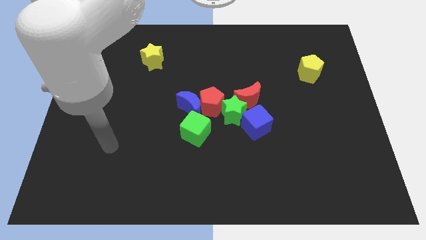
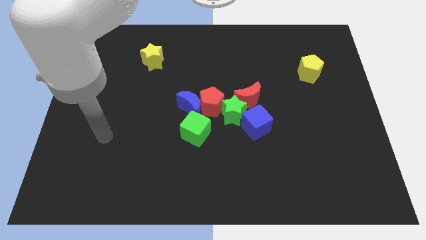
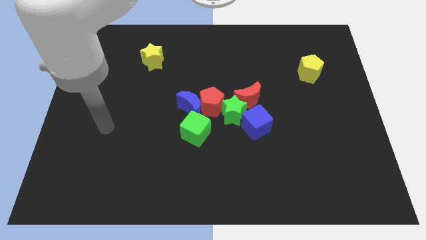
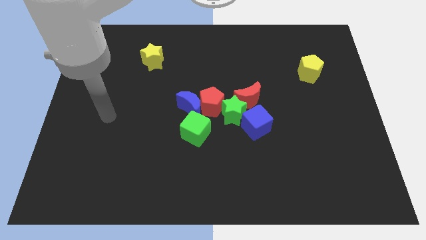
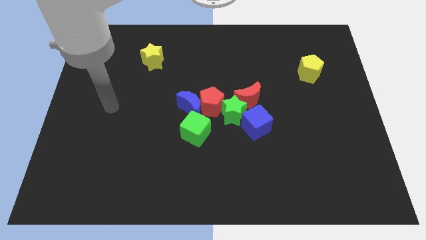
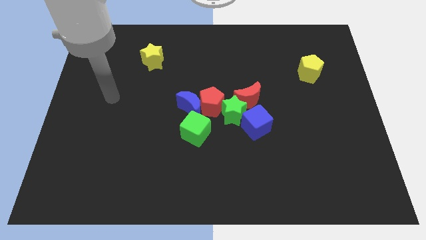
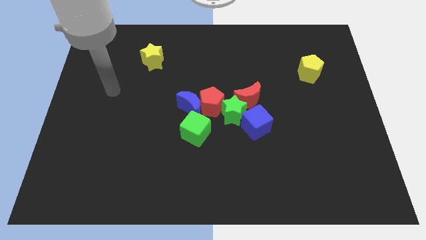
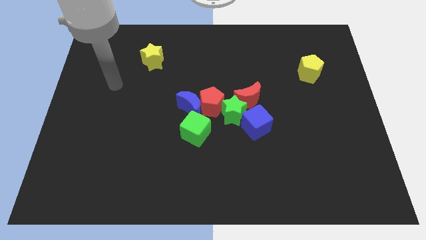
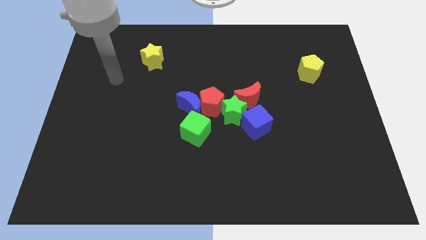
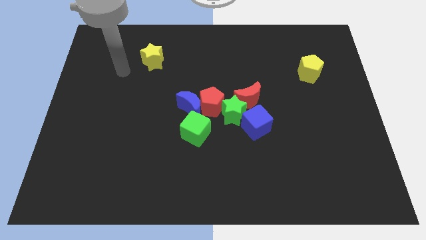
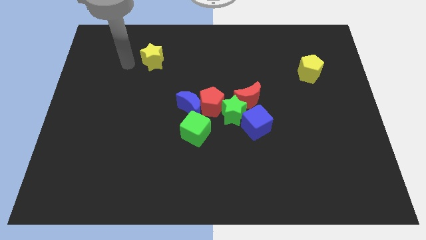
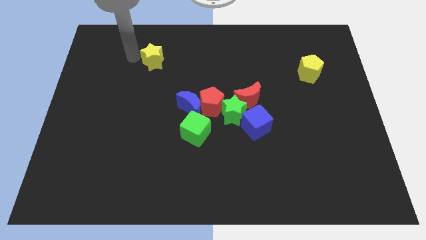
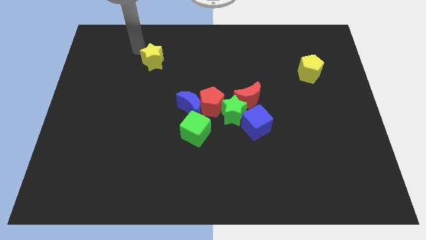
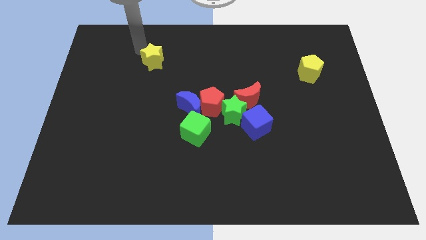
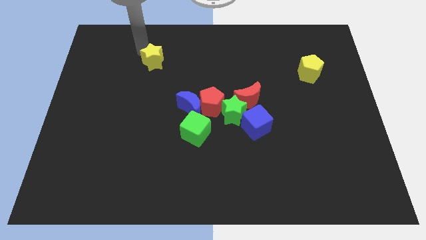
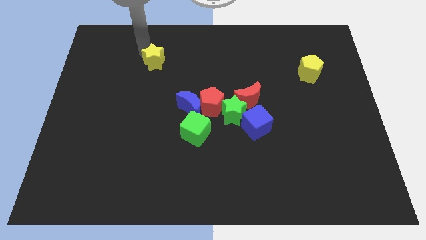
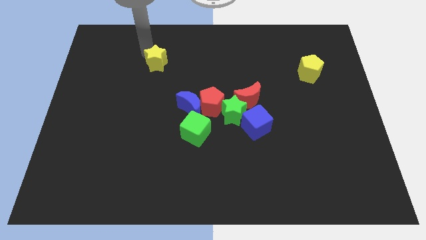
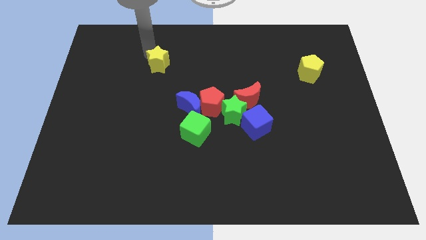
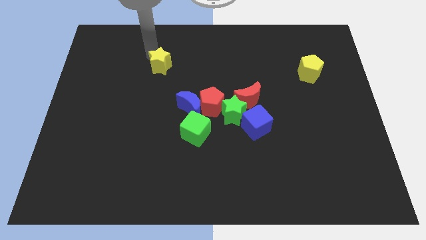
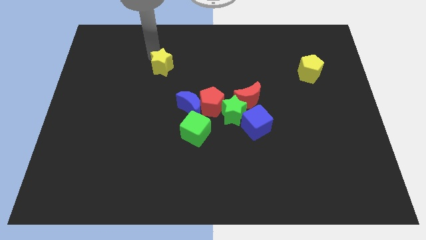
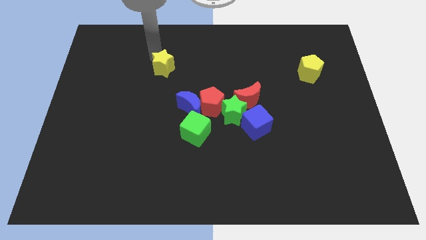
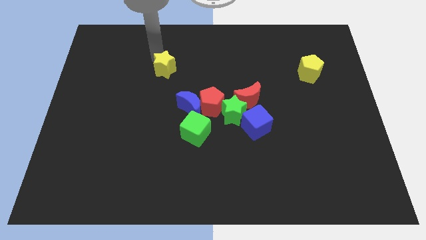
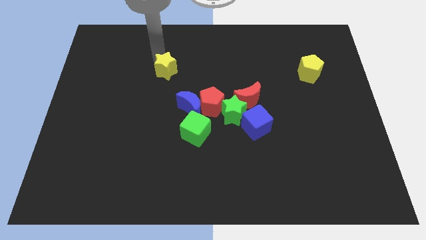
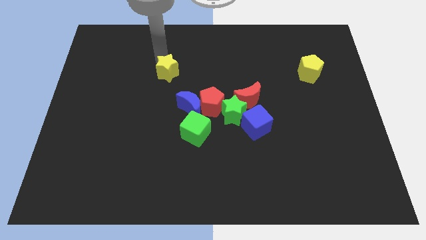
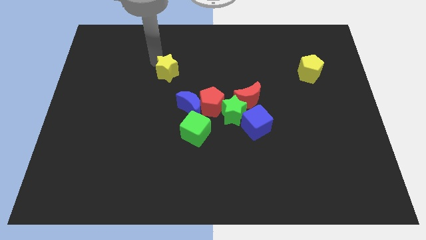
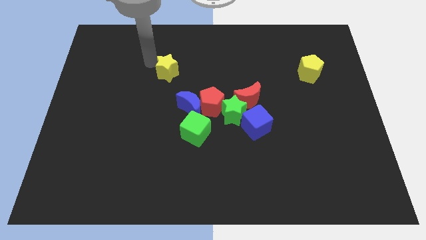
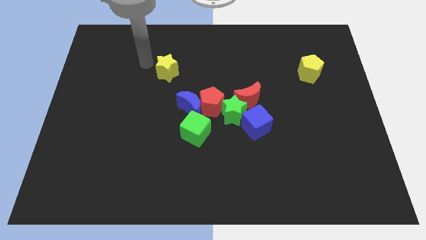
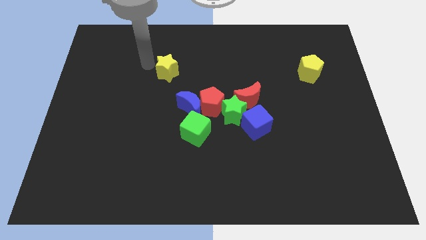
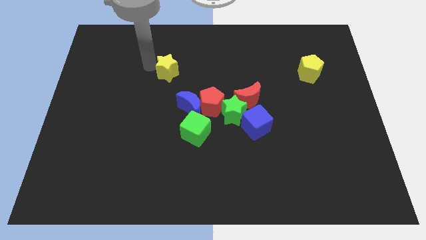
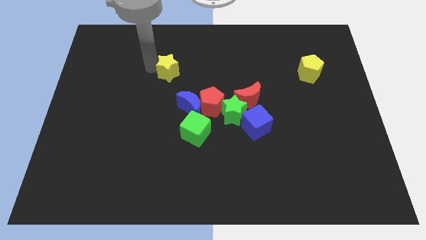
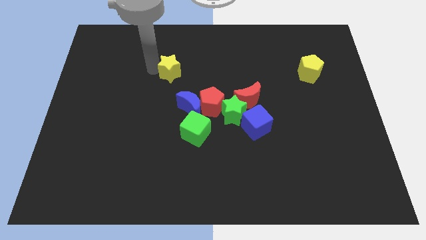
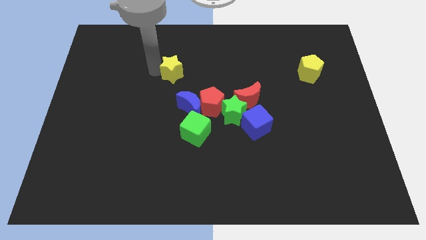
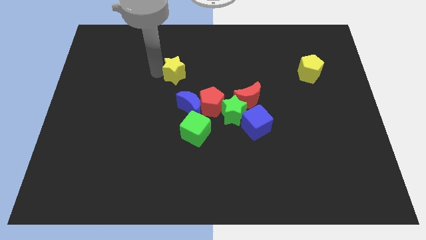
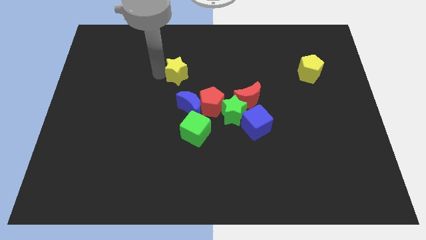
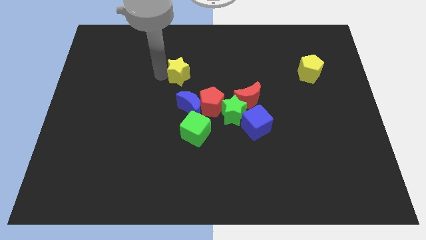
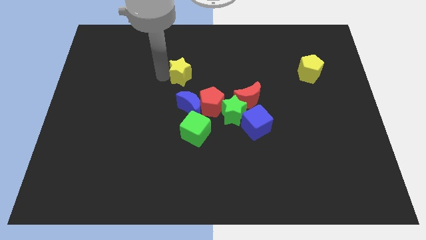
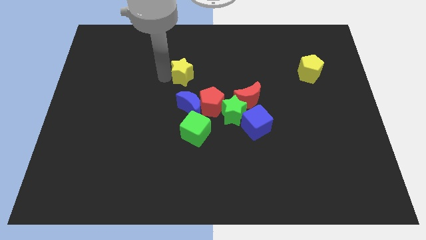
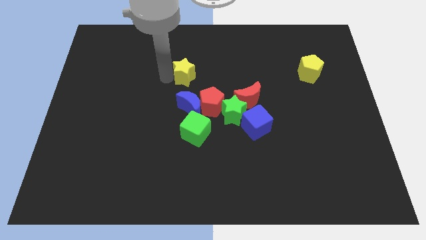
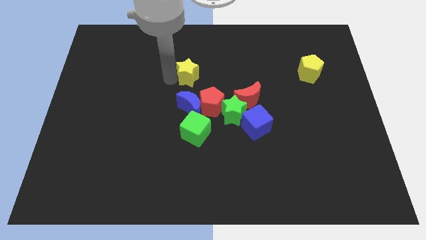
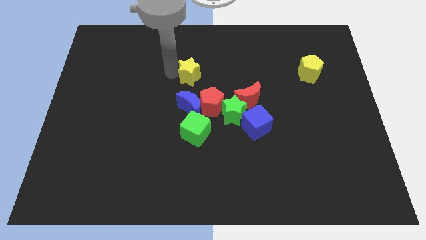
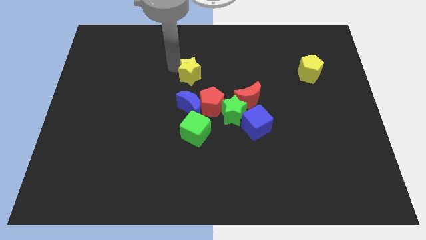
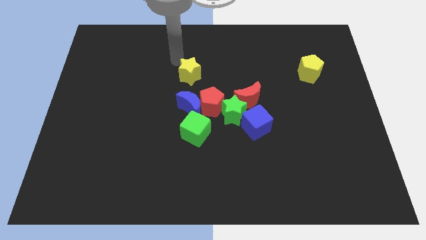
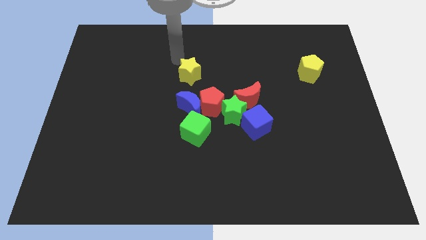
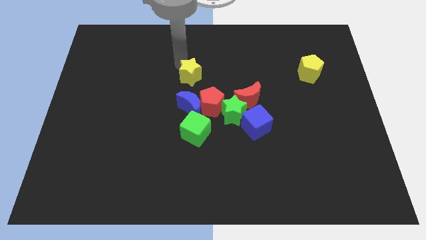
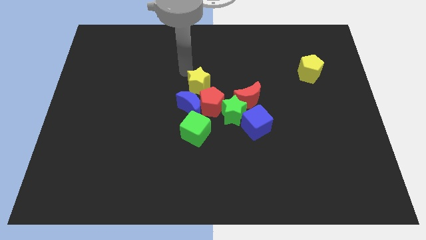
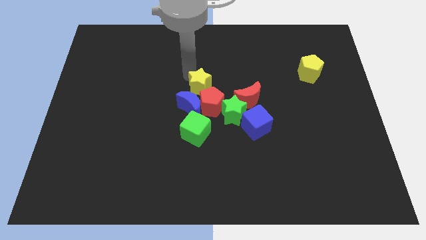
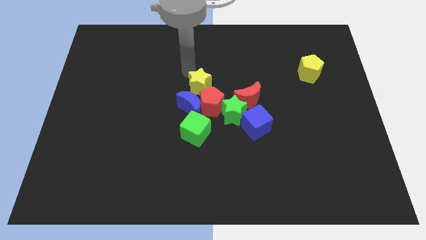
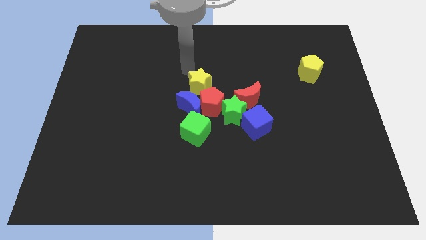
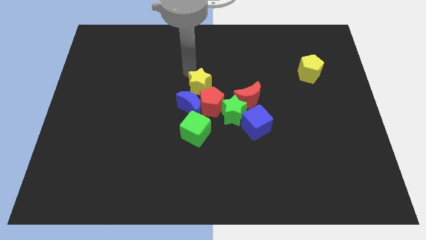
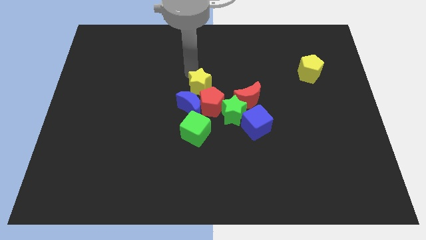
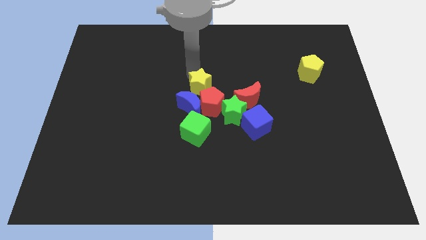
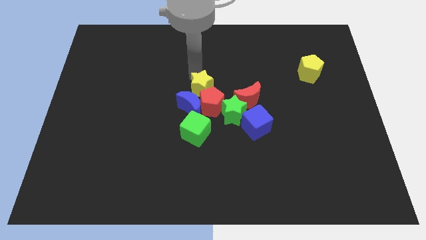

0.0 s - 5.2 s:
push the yellow star next to the red pentagon

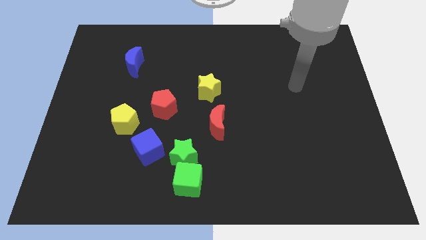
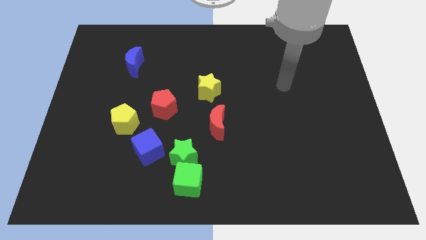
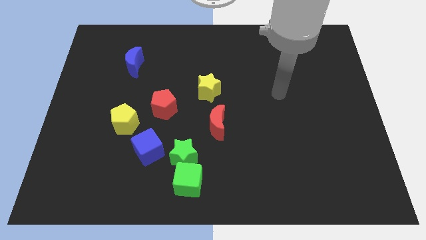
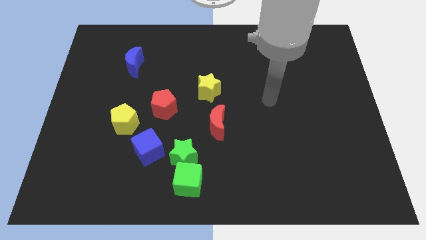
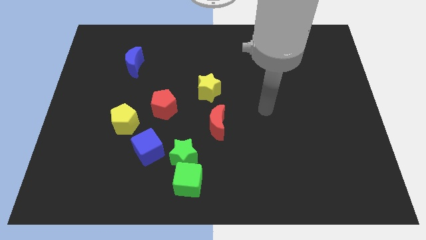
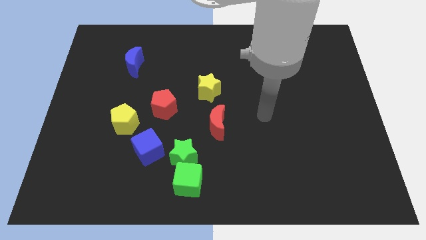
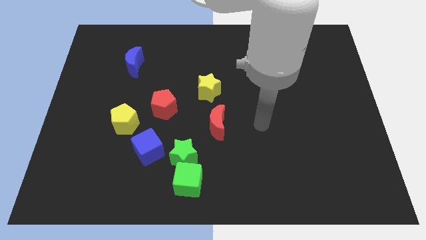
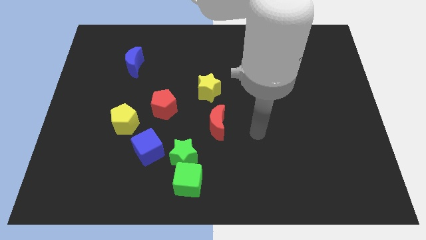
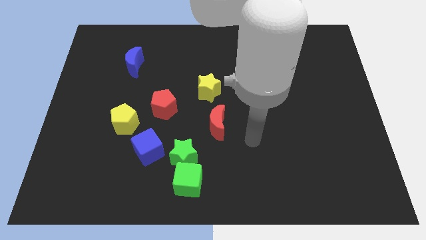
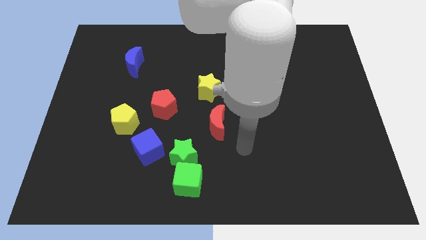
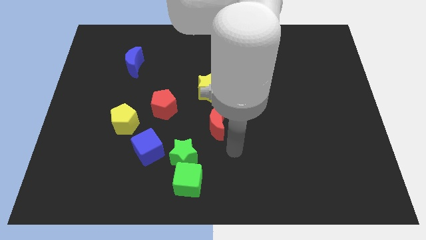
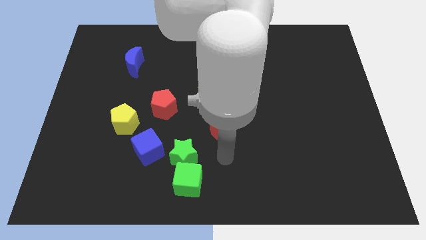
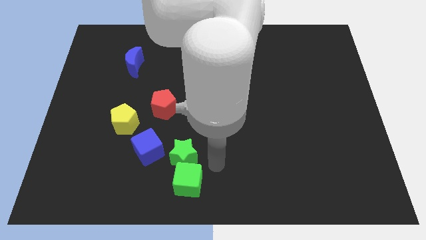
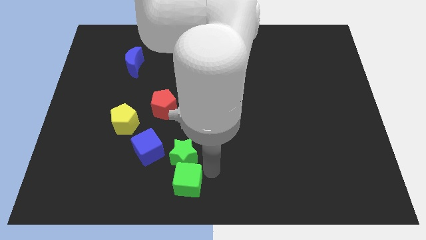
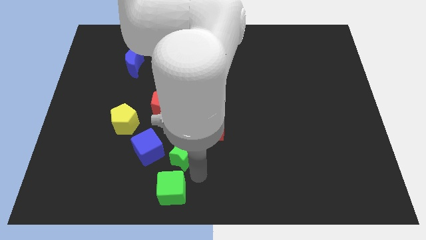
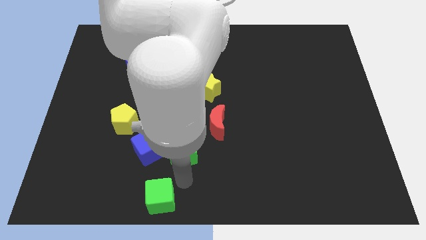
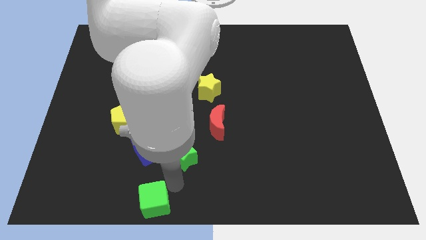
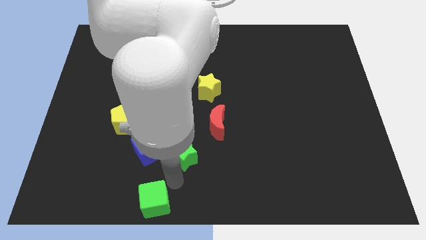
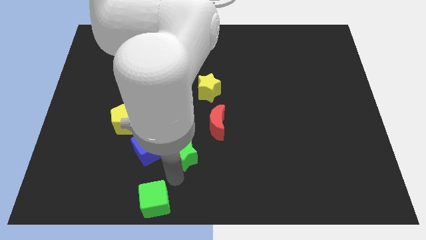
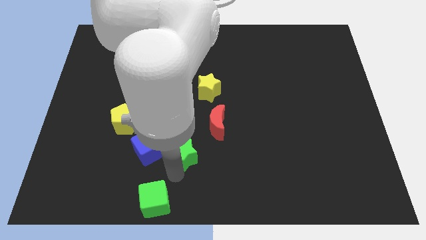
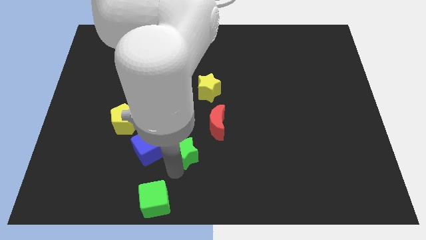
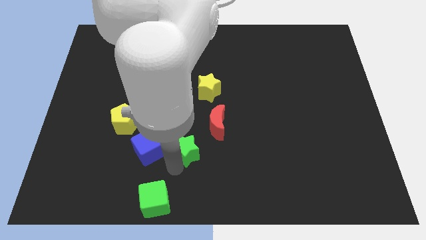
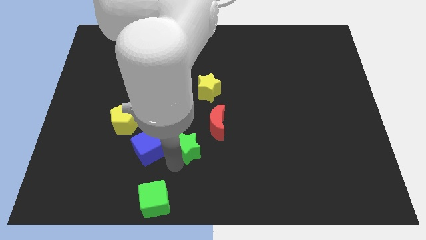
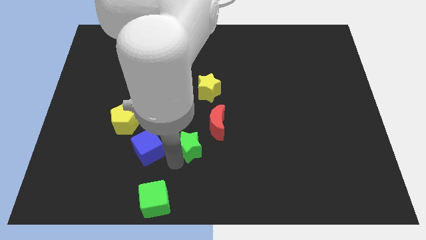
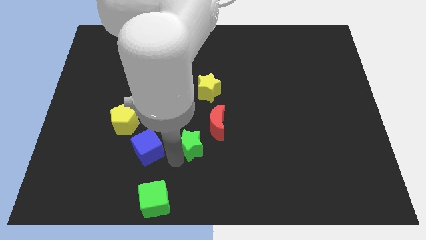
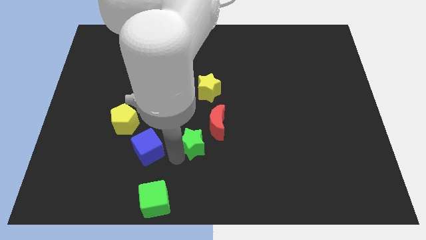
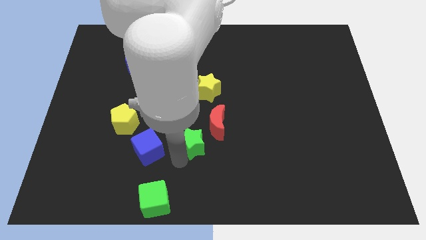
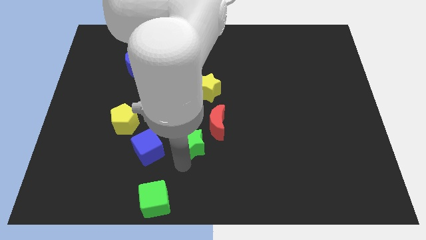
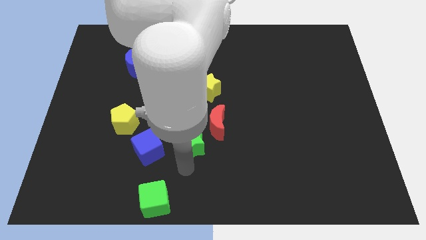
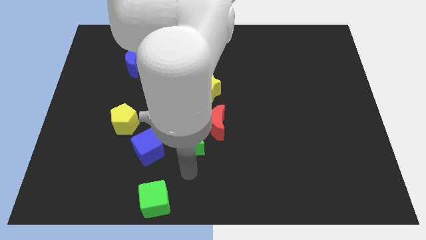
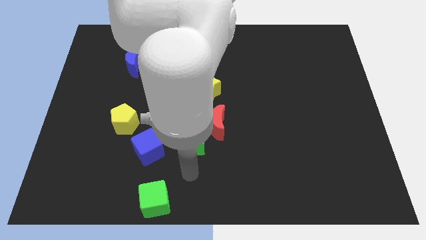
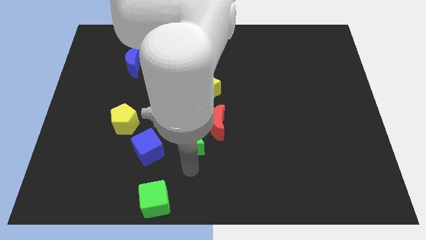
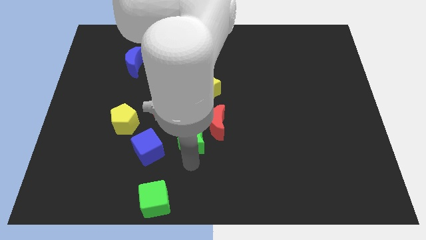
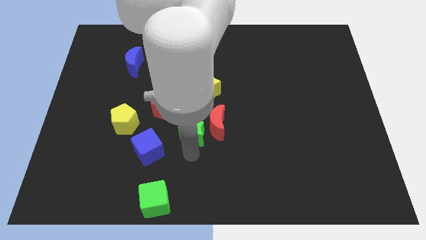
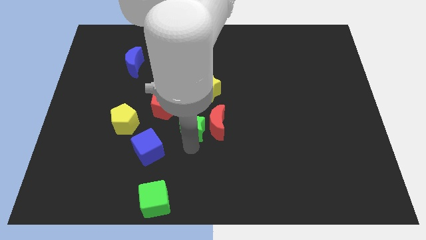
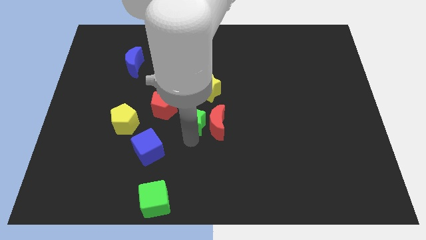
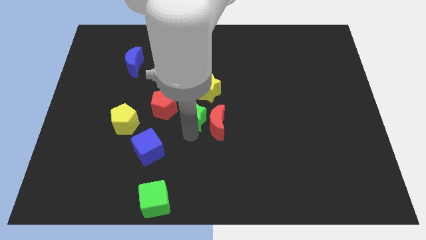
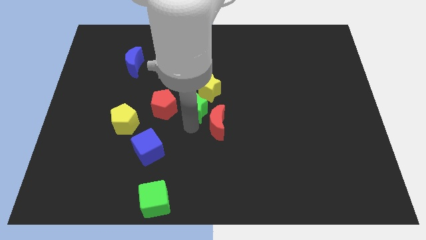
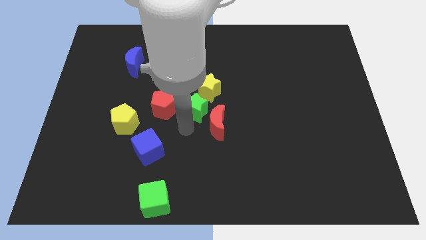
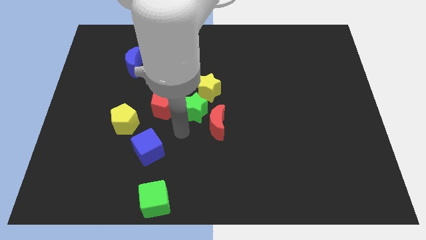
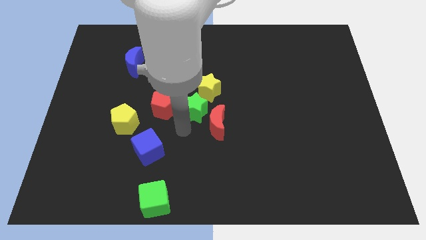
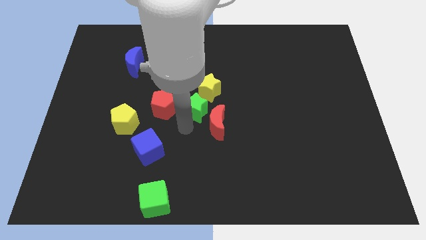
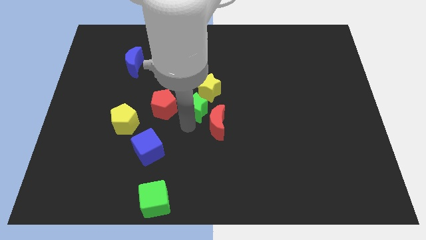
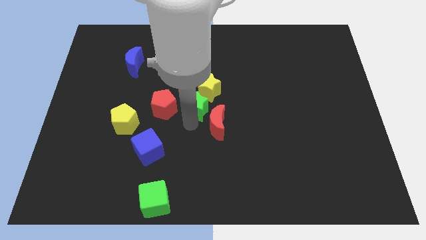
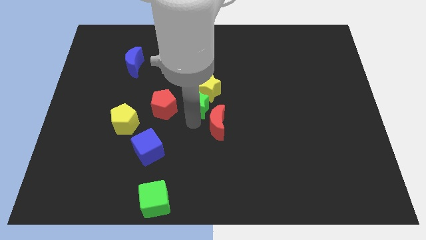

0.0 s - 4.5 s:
push the green star close to the yellow star
